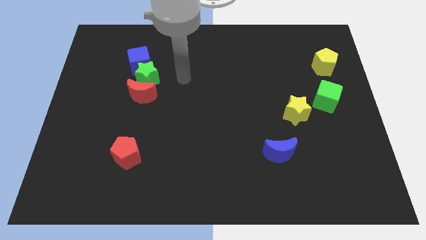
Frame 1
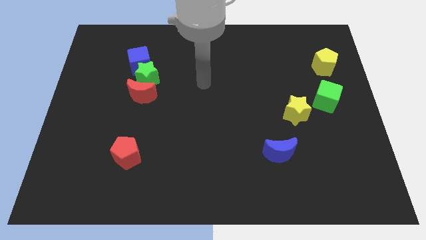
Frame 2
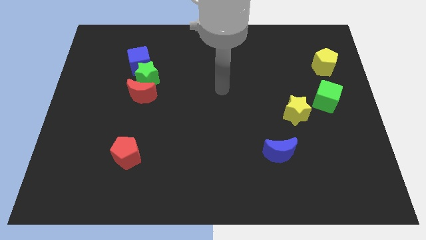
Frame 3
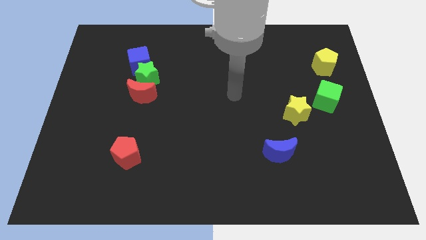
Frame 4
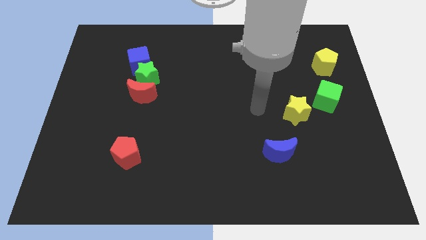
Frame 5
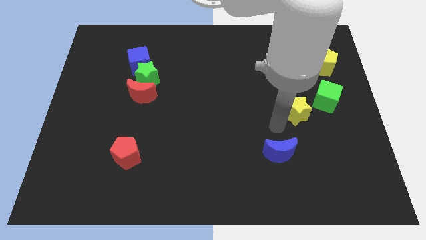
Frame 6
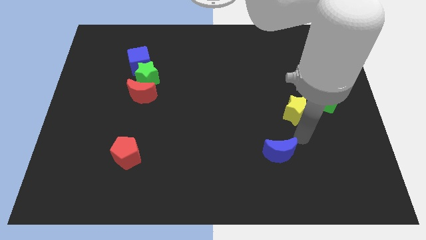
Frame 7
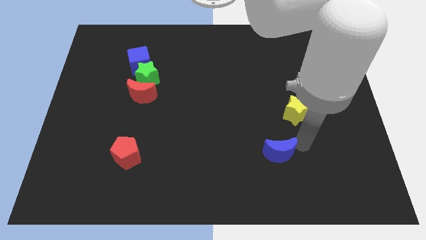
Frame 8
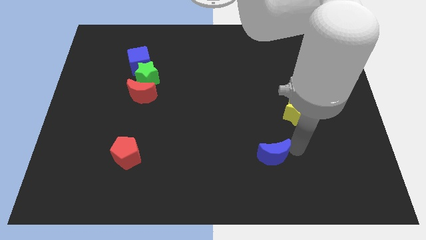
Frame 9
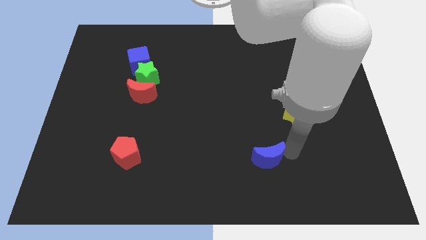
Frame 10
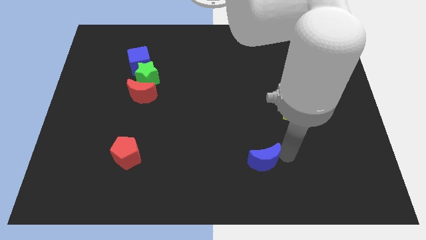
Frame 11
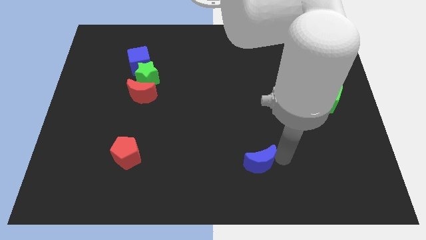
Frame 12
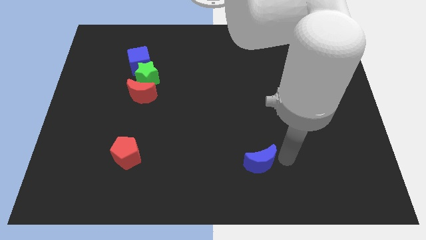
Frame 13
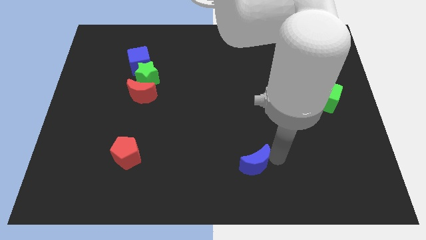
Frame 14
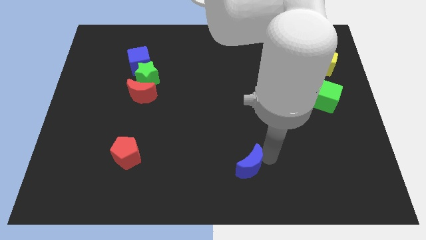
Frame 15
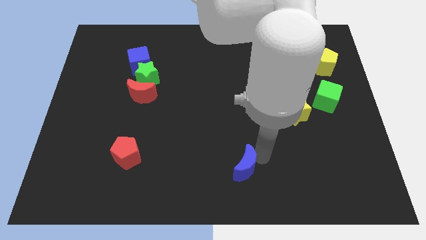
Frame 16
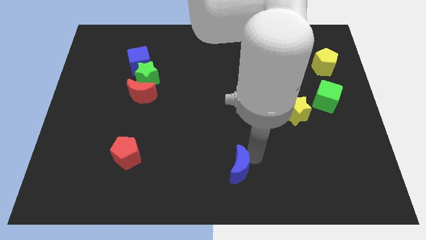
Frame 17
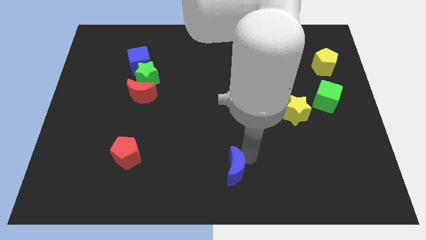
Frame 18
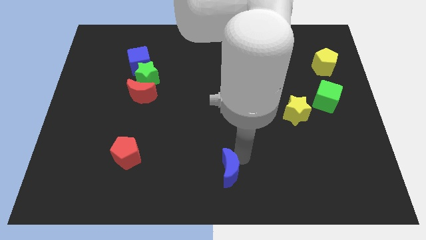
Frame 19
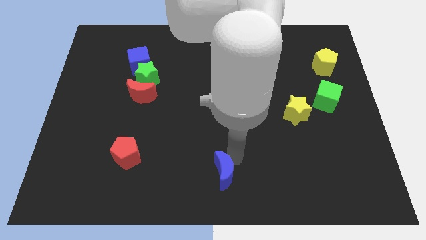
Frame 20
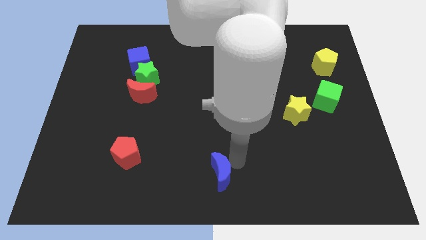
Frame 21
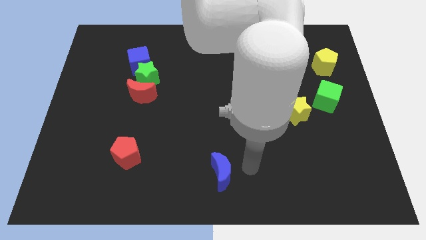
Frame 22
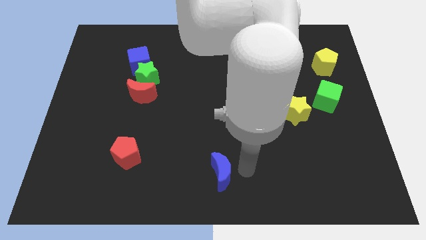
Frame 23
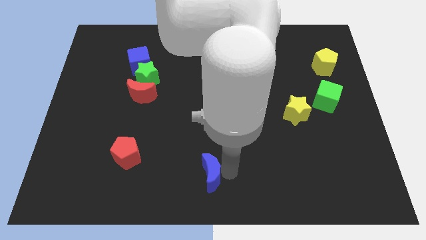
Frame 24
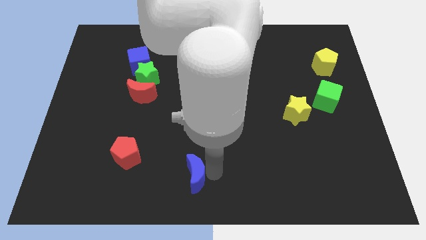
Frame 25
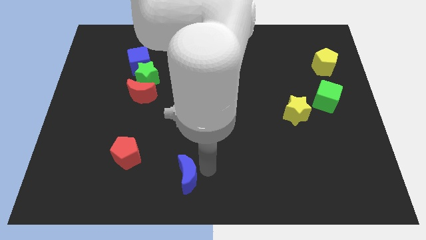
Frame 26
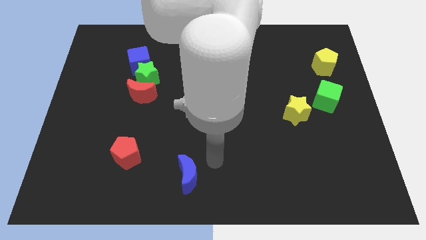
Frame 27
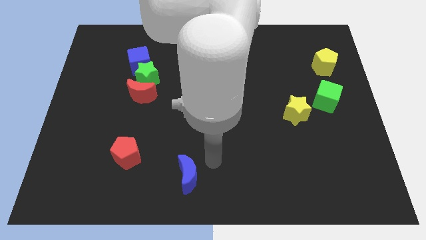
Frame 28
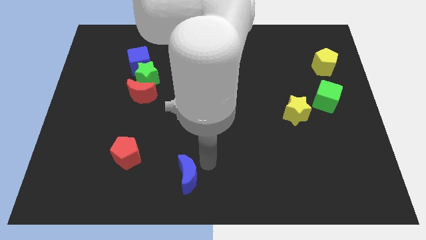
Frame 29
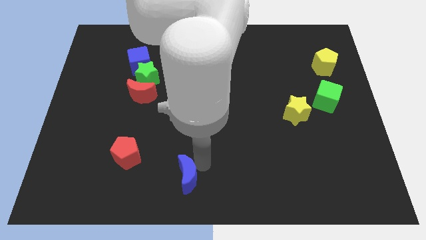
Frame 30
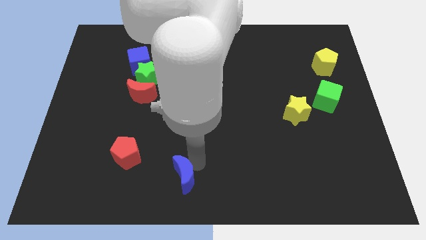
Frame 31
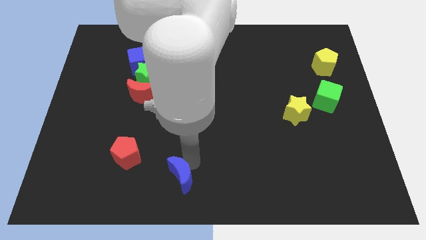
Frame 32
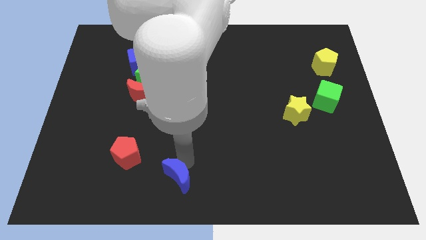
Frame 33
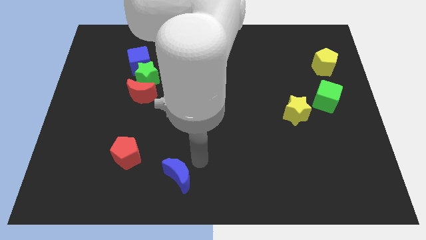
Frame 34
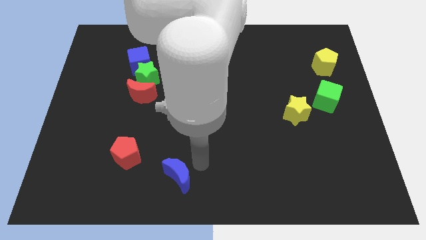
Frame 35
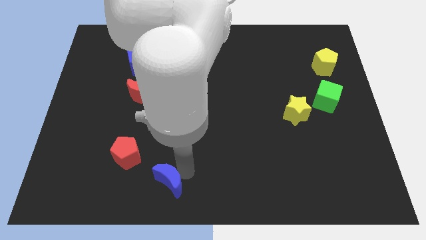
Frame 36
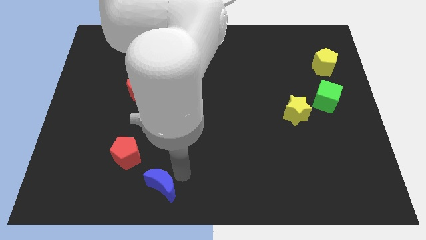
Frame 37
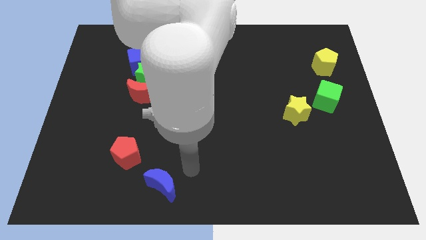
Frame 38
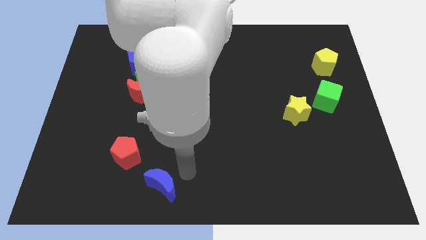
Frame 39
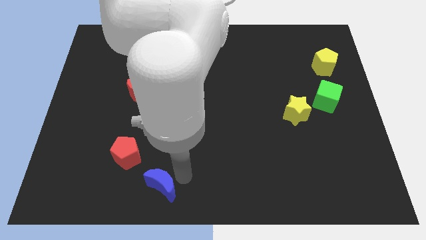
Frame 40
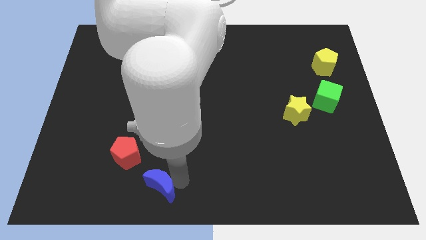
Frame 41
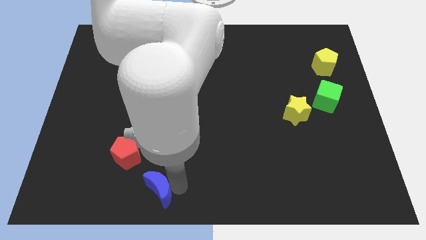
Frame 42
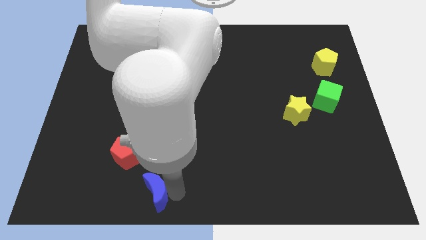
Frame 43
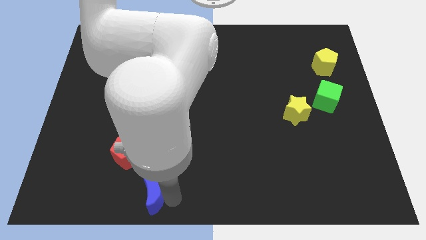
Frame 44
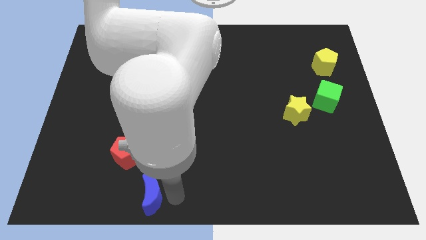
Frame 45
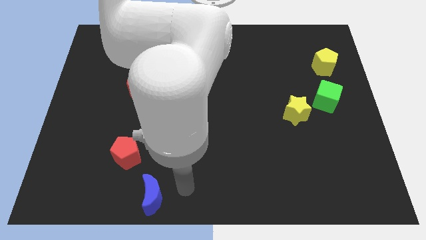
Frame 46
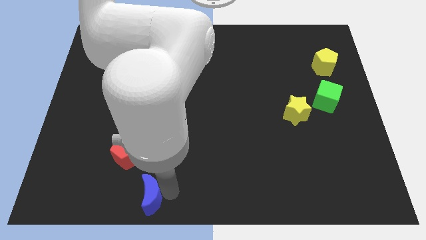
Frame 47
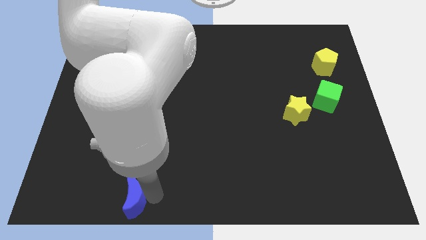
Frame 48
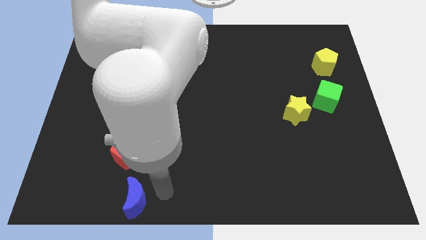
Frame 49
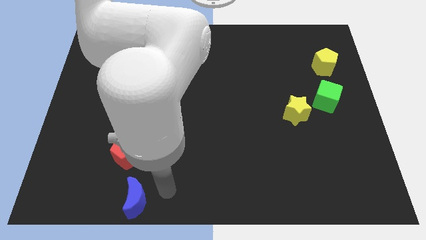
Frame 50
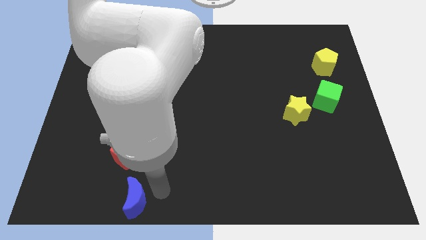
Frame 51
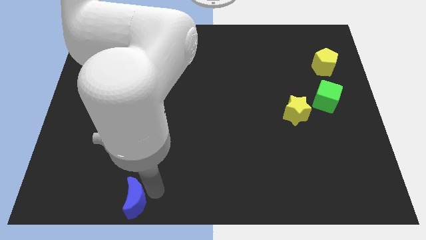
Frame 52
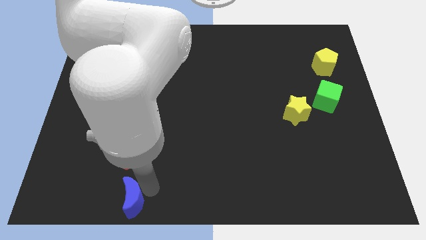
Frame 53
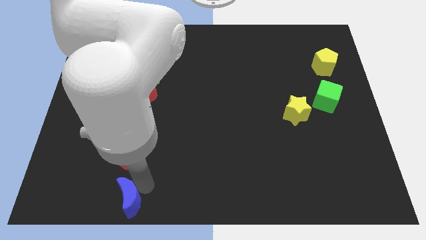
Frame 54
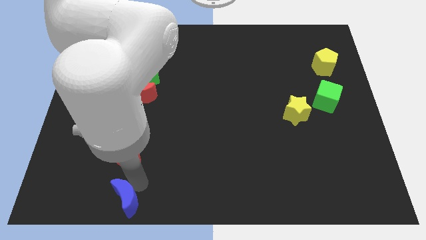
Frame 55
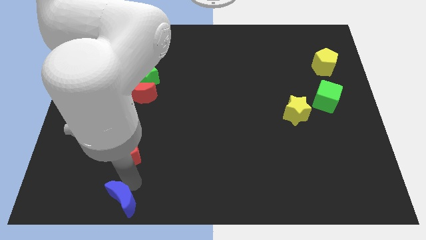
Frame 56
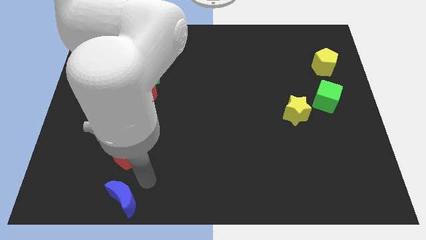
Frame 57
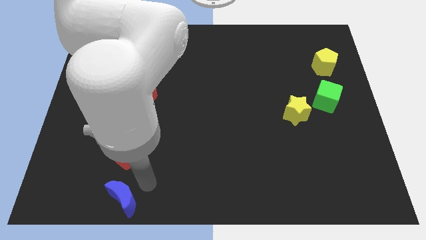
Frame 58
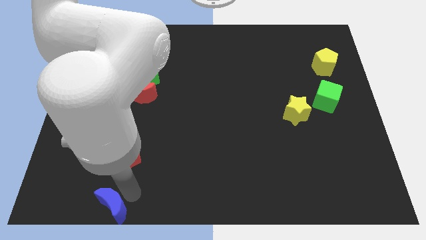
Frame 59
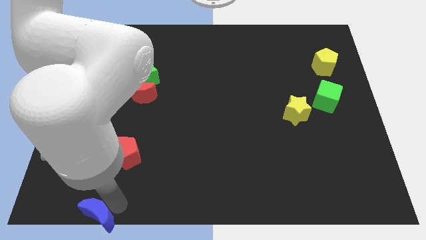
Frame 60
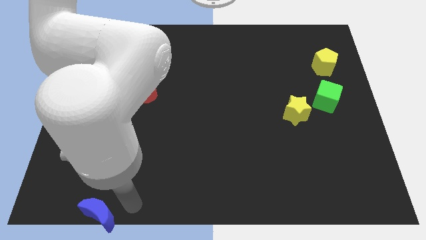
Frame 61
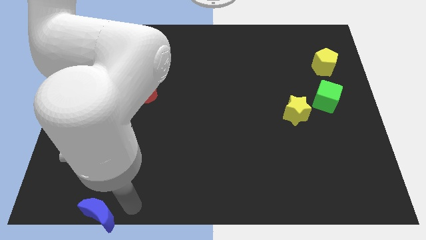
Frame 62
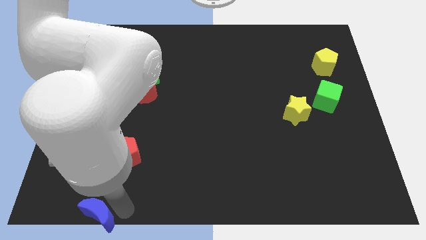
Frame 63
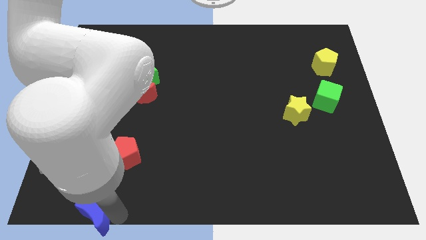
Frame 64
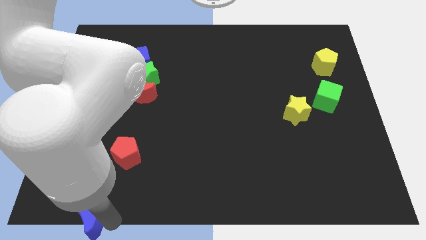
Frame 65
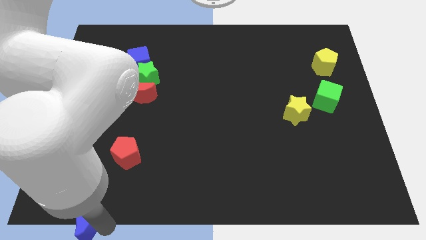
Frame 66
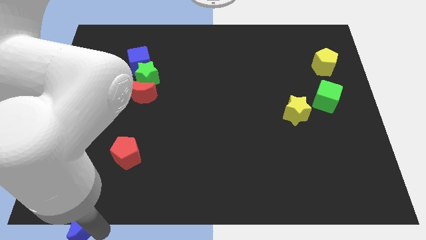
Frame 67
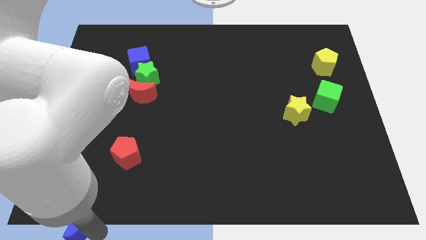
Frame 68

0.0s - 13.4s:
put the blue moon to the lower left corner
